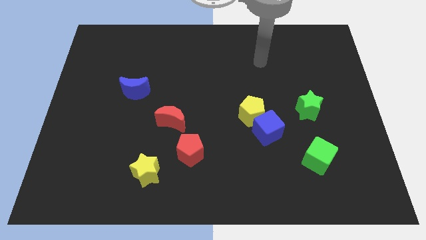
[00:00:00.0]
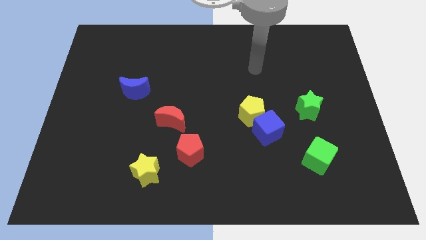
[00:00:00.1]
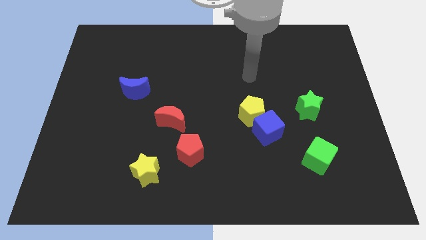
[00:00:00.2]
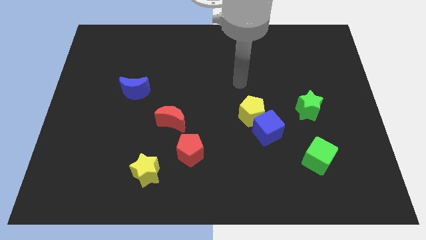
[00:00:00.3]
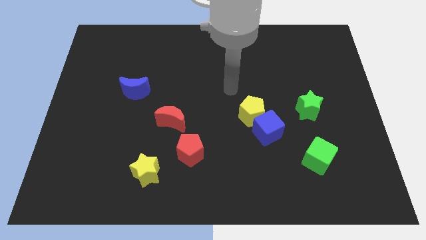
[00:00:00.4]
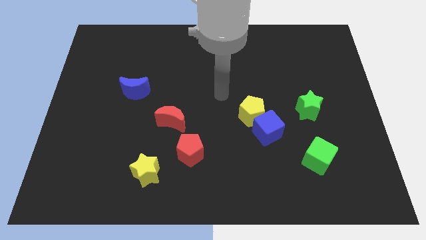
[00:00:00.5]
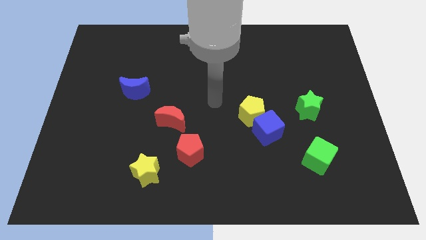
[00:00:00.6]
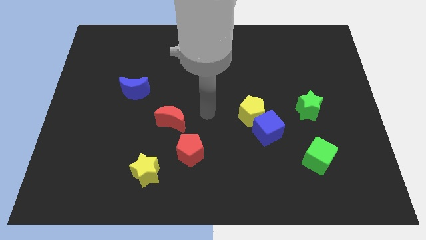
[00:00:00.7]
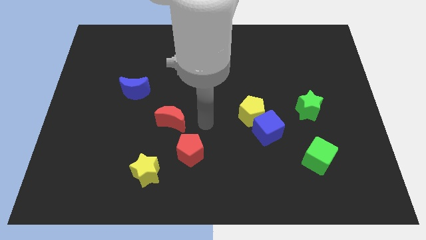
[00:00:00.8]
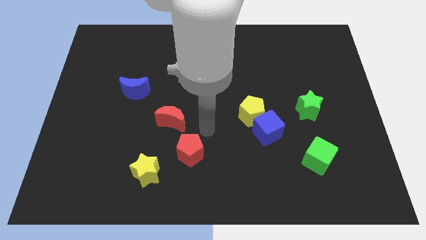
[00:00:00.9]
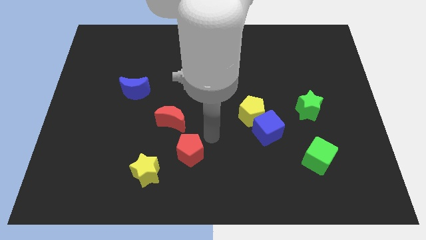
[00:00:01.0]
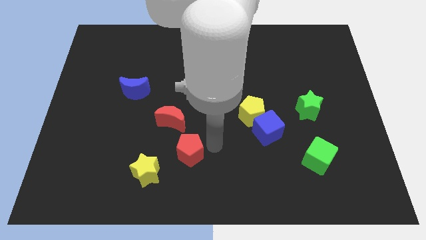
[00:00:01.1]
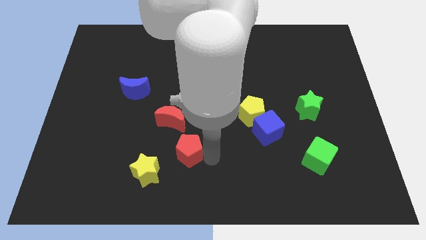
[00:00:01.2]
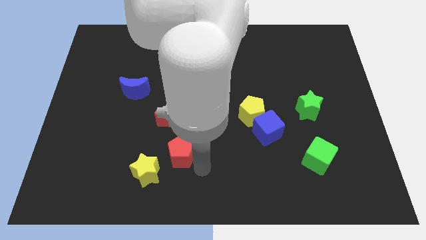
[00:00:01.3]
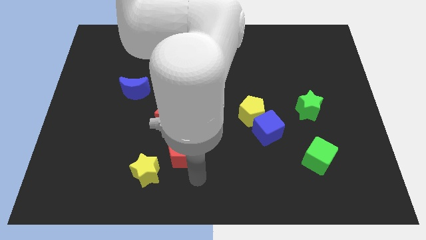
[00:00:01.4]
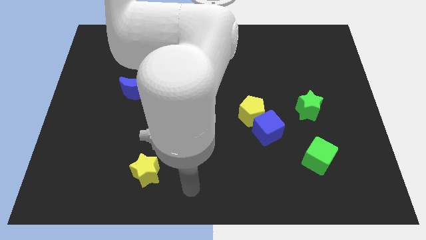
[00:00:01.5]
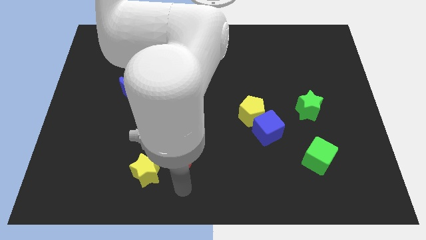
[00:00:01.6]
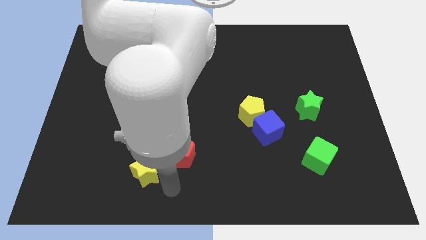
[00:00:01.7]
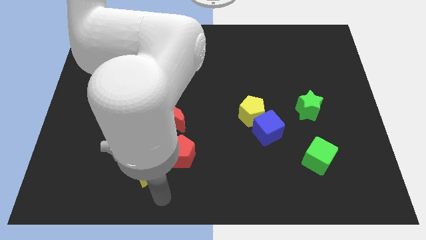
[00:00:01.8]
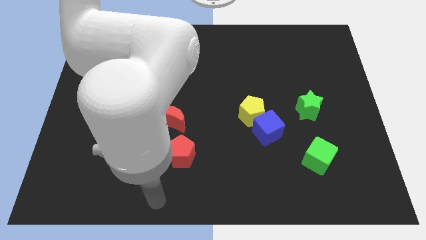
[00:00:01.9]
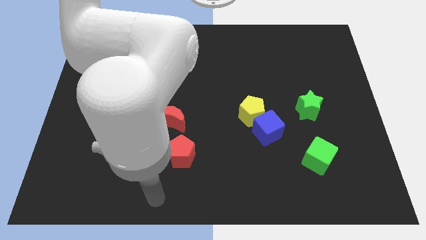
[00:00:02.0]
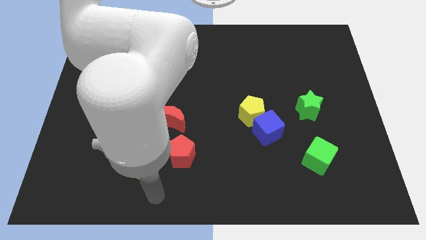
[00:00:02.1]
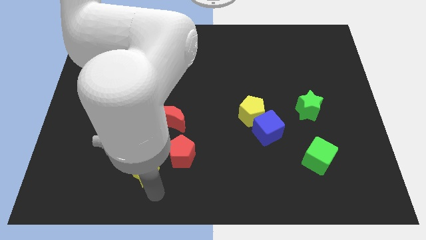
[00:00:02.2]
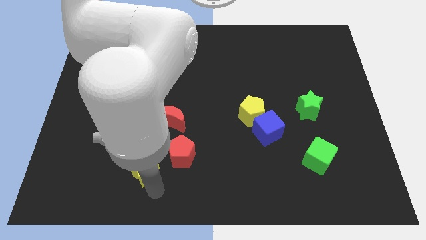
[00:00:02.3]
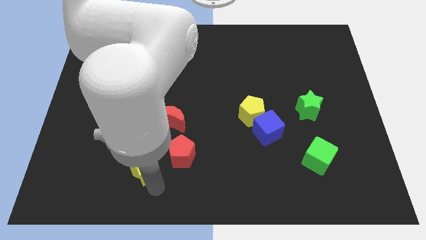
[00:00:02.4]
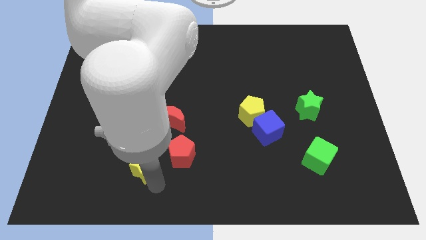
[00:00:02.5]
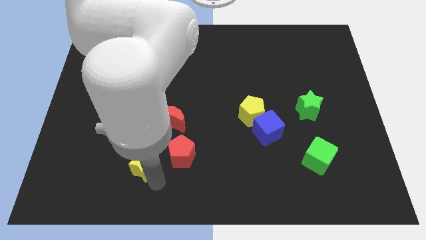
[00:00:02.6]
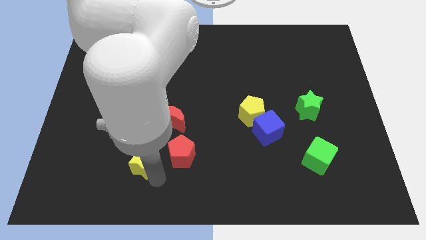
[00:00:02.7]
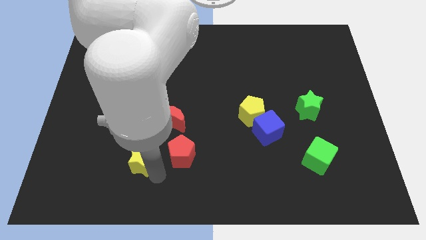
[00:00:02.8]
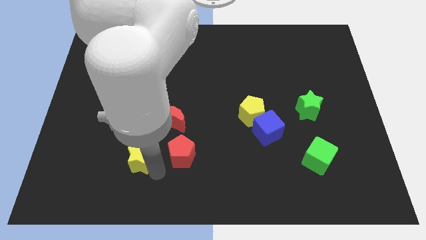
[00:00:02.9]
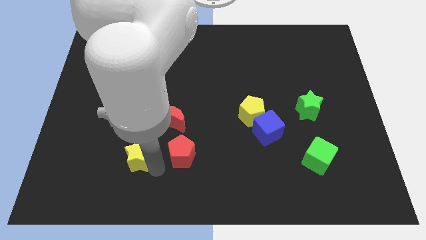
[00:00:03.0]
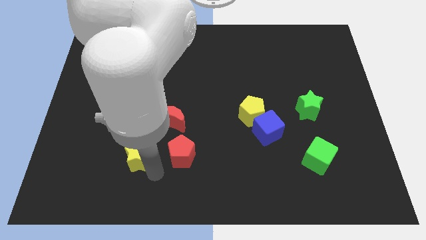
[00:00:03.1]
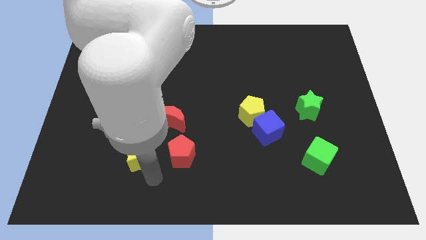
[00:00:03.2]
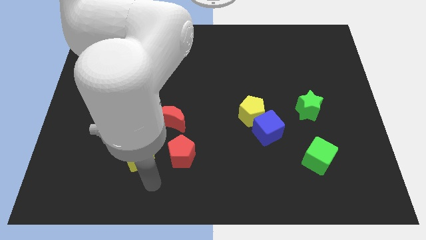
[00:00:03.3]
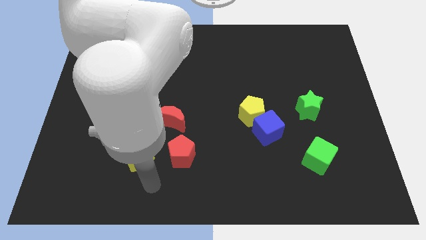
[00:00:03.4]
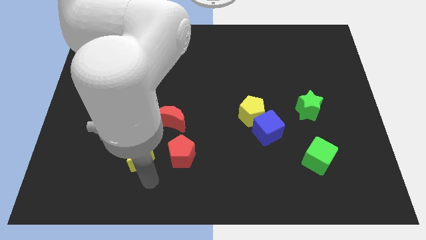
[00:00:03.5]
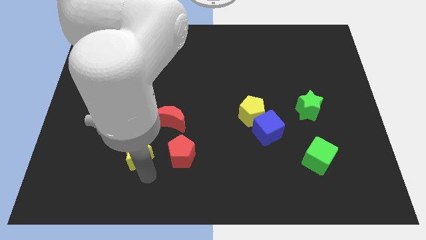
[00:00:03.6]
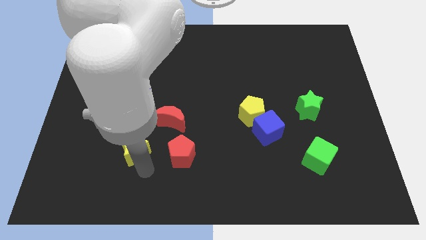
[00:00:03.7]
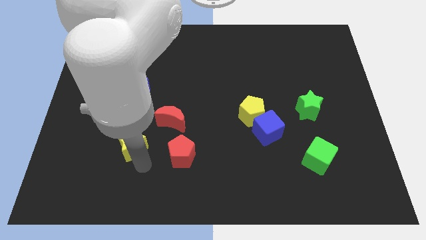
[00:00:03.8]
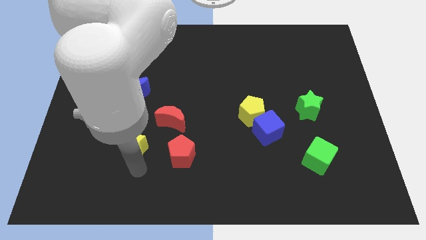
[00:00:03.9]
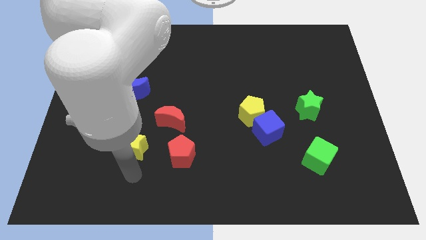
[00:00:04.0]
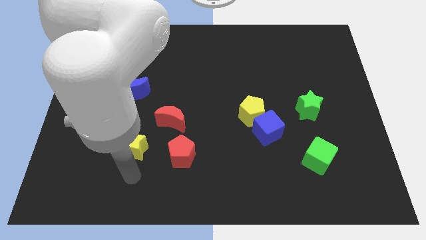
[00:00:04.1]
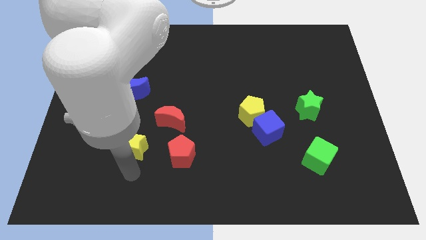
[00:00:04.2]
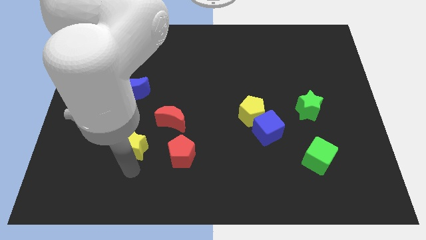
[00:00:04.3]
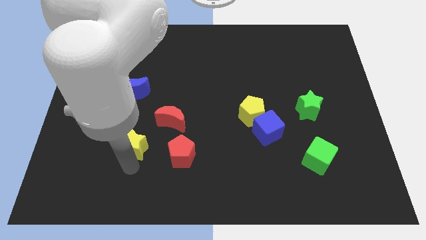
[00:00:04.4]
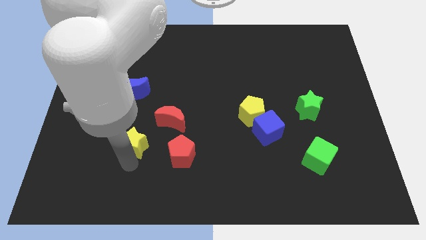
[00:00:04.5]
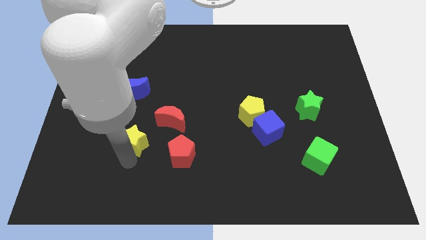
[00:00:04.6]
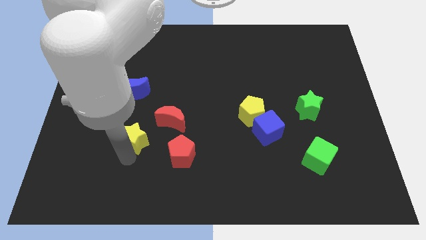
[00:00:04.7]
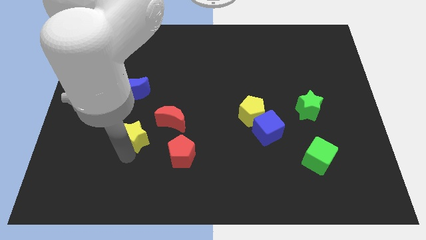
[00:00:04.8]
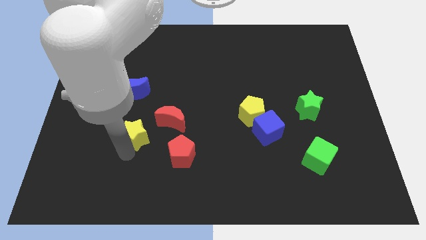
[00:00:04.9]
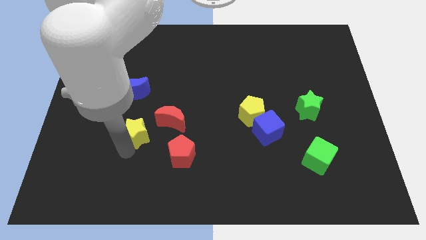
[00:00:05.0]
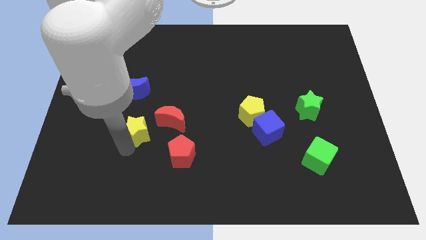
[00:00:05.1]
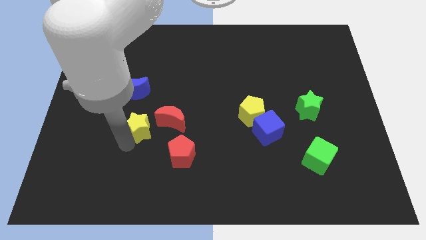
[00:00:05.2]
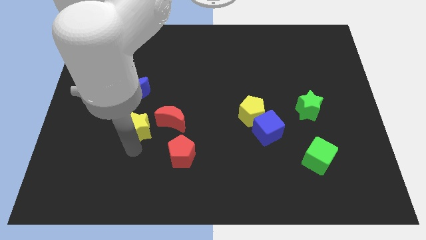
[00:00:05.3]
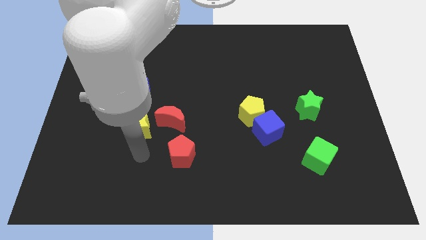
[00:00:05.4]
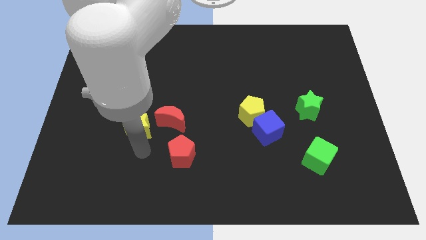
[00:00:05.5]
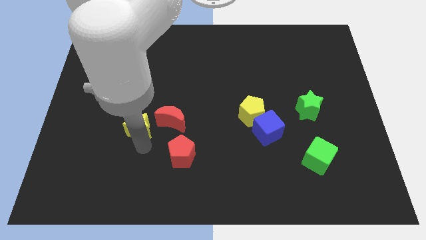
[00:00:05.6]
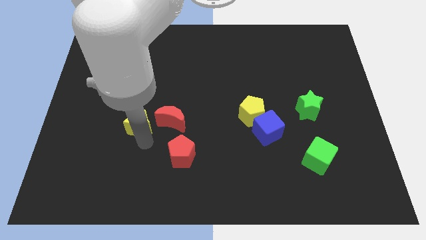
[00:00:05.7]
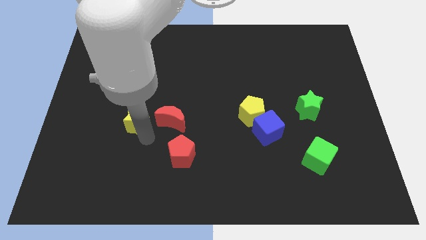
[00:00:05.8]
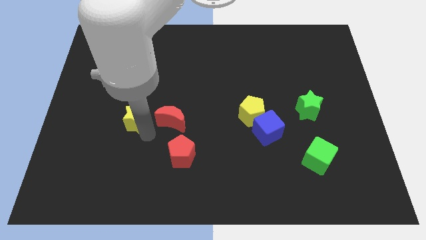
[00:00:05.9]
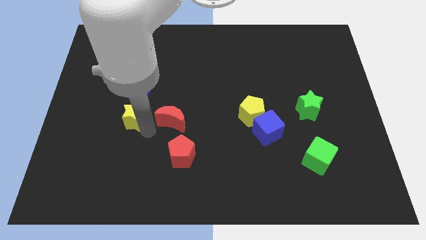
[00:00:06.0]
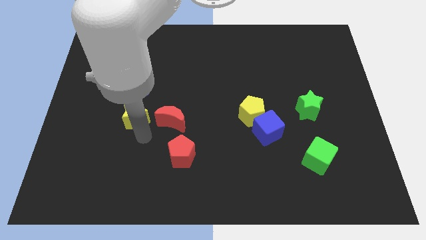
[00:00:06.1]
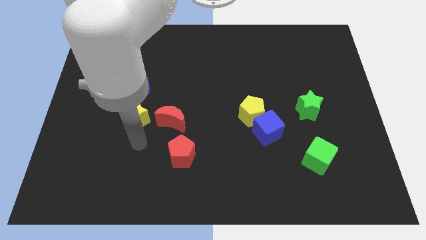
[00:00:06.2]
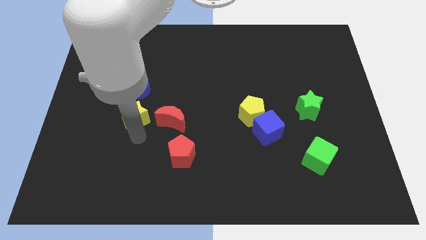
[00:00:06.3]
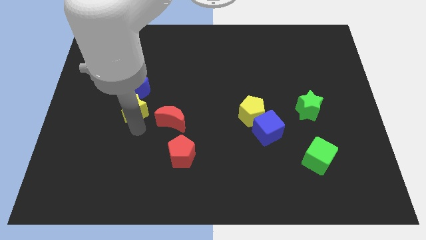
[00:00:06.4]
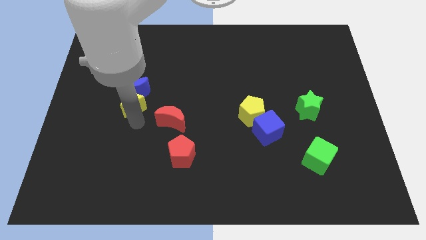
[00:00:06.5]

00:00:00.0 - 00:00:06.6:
put the yellow star next to the blue moon
